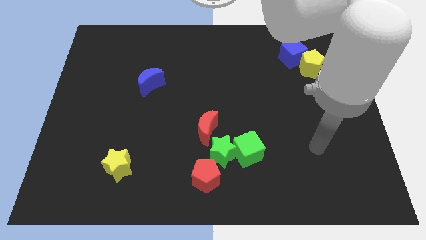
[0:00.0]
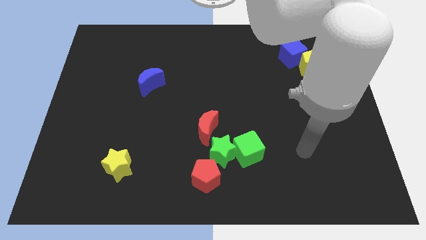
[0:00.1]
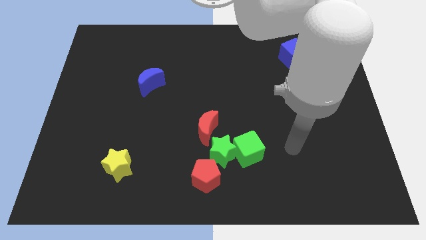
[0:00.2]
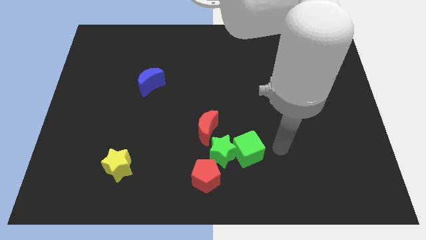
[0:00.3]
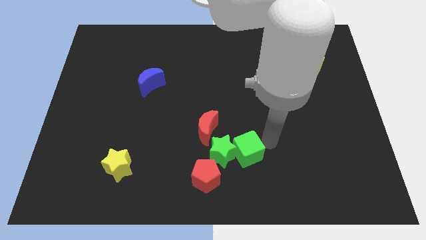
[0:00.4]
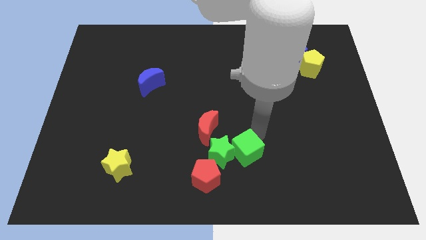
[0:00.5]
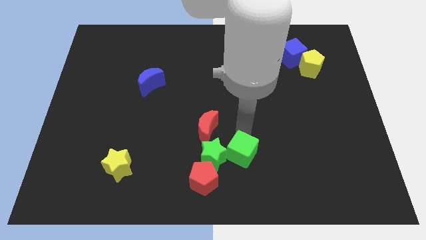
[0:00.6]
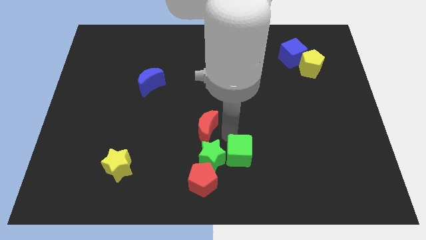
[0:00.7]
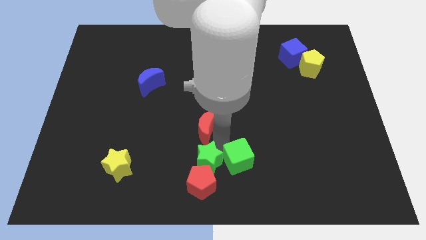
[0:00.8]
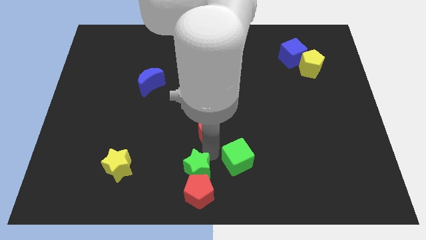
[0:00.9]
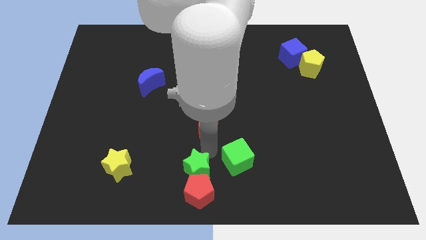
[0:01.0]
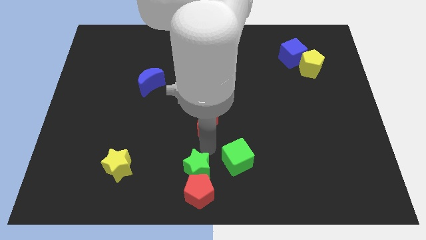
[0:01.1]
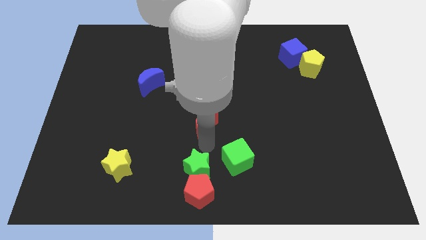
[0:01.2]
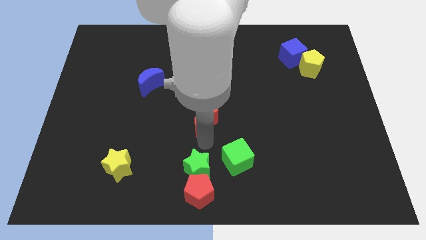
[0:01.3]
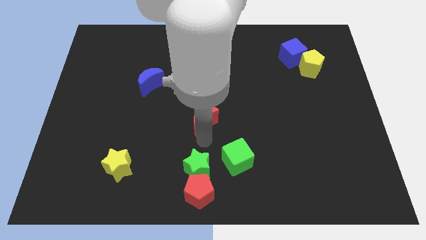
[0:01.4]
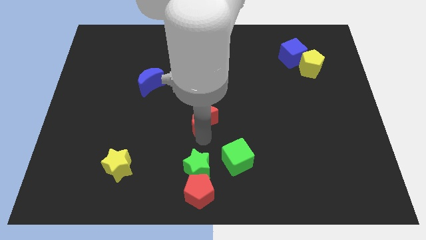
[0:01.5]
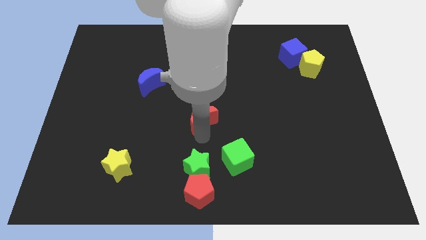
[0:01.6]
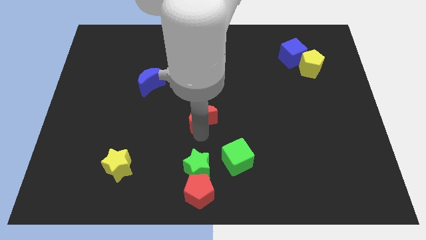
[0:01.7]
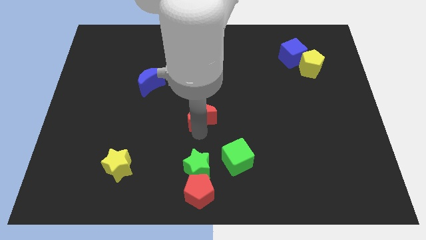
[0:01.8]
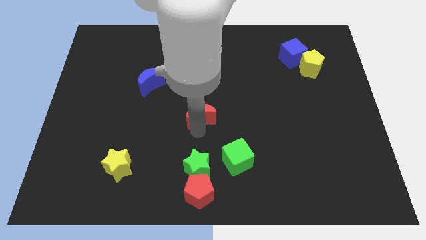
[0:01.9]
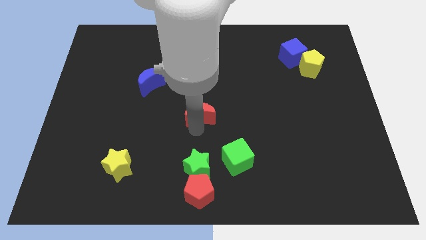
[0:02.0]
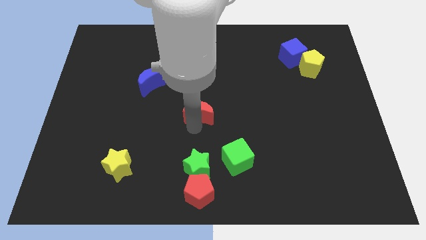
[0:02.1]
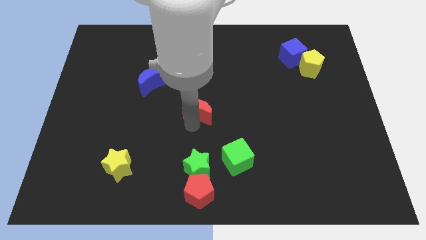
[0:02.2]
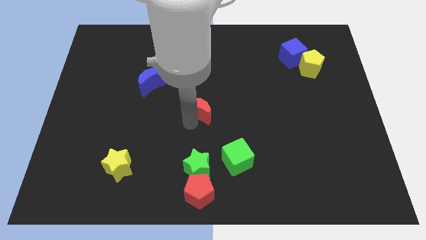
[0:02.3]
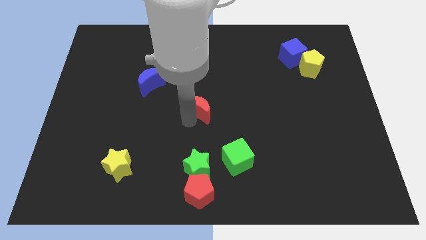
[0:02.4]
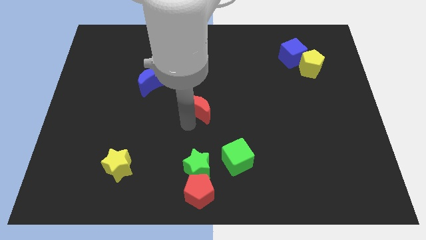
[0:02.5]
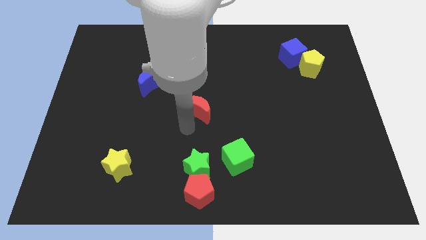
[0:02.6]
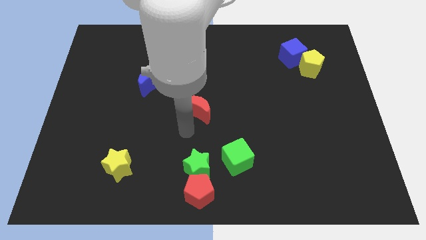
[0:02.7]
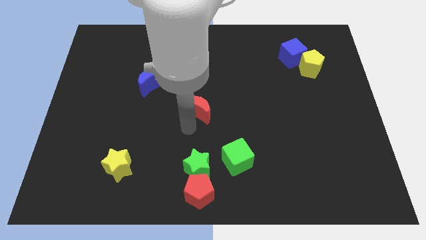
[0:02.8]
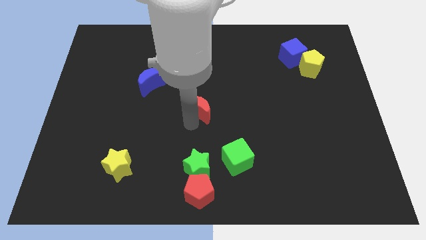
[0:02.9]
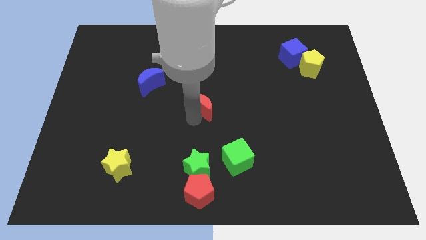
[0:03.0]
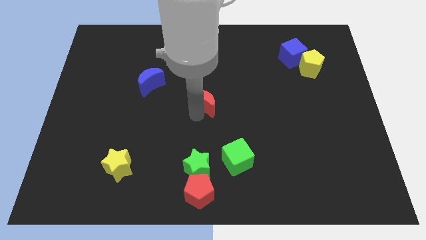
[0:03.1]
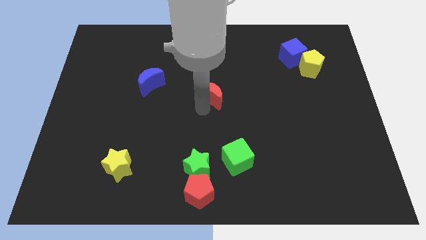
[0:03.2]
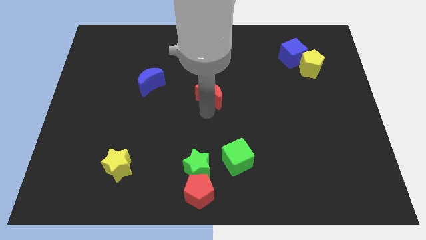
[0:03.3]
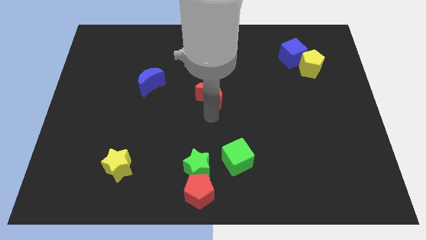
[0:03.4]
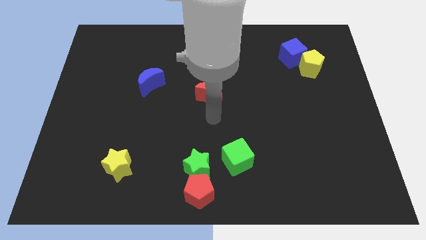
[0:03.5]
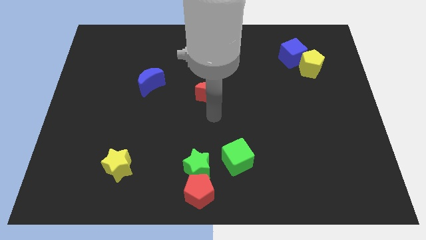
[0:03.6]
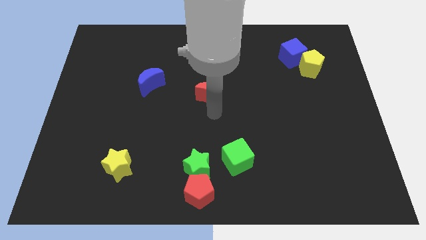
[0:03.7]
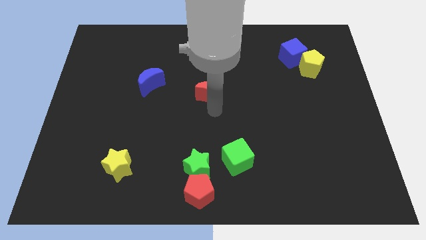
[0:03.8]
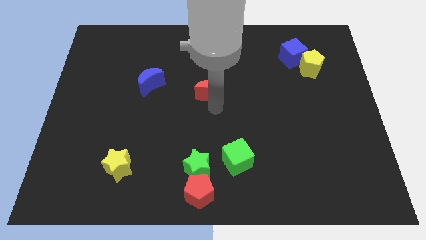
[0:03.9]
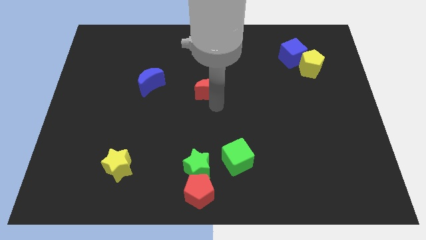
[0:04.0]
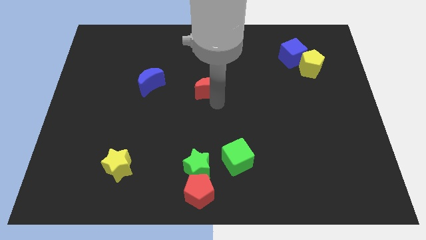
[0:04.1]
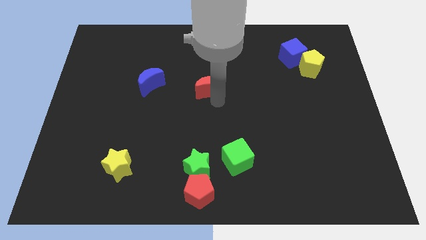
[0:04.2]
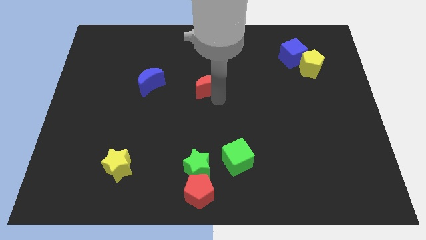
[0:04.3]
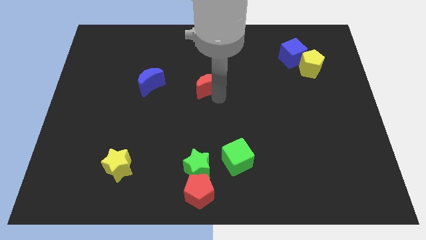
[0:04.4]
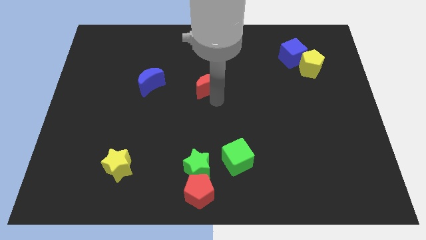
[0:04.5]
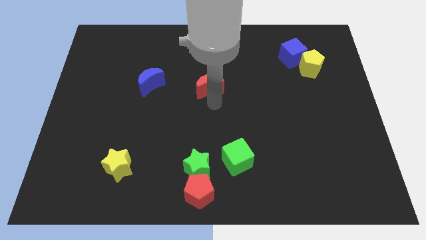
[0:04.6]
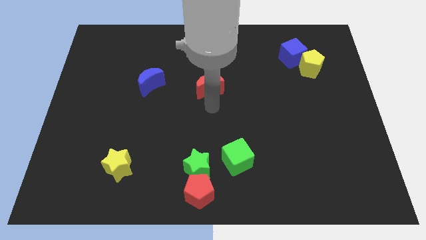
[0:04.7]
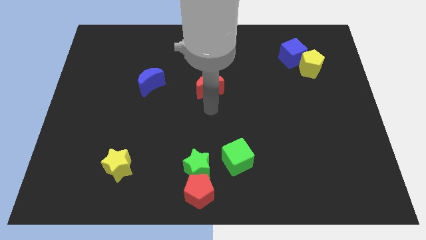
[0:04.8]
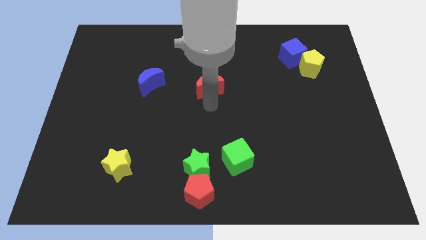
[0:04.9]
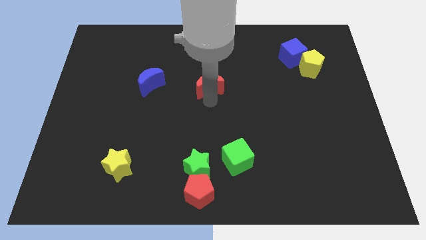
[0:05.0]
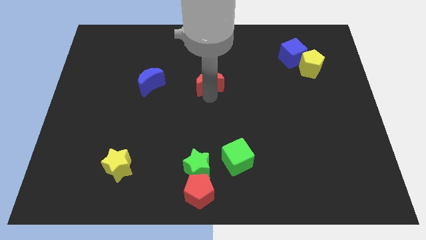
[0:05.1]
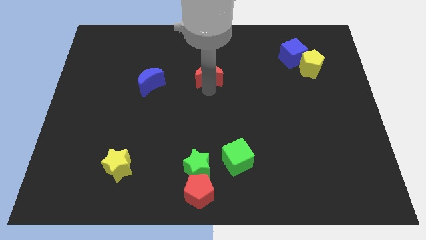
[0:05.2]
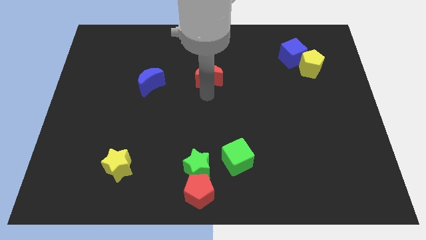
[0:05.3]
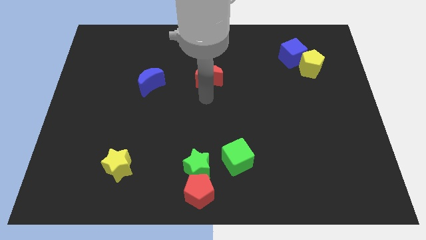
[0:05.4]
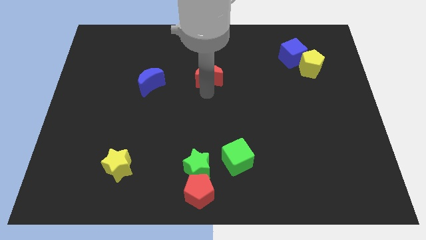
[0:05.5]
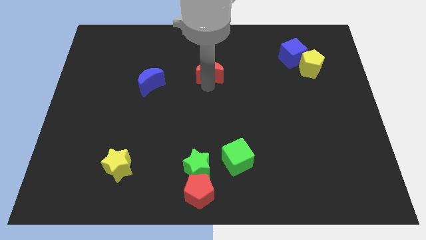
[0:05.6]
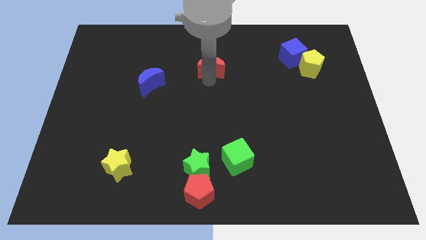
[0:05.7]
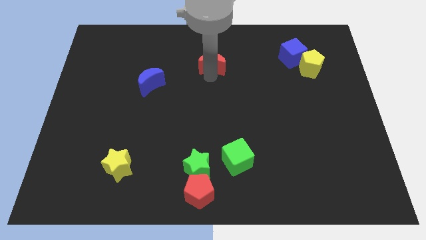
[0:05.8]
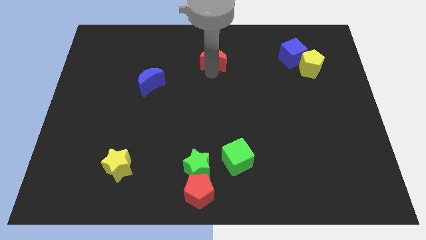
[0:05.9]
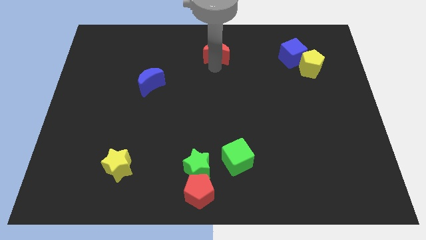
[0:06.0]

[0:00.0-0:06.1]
put the red moon to the top
